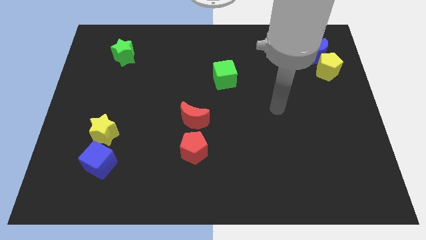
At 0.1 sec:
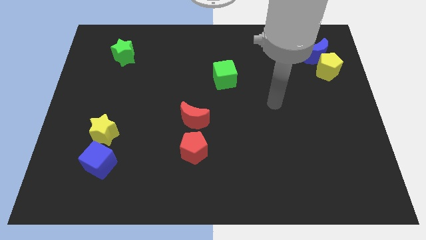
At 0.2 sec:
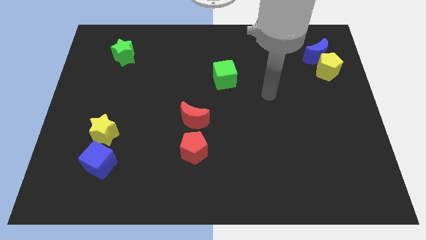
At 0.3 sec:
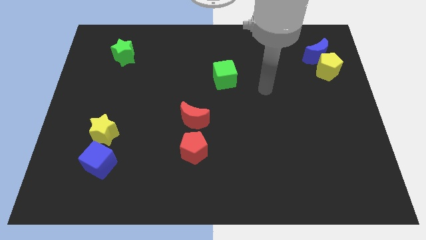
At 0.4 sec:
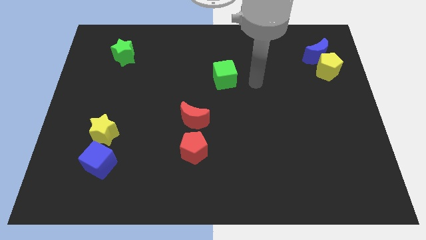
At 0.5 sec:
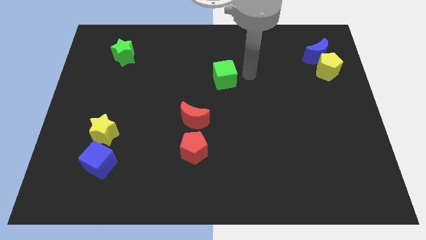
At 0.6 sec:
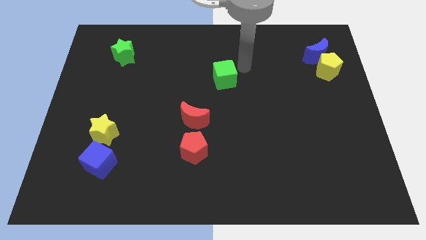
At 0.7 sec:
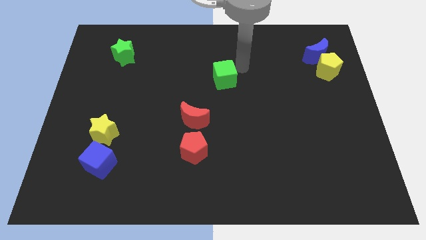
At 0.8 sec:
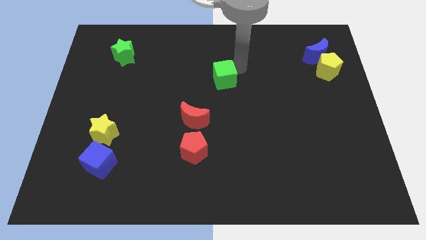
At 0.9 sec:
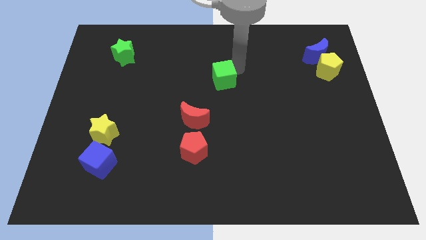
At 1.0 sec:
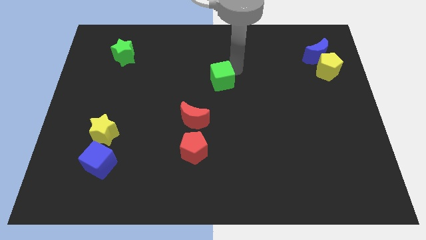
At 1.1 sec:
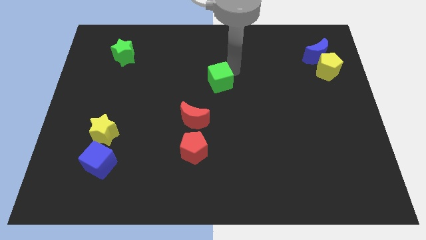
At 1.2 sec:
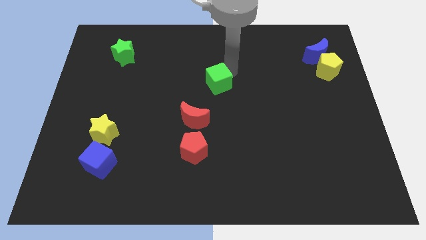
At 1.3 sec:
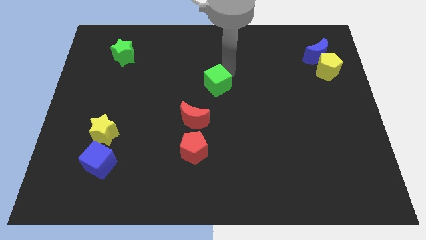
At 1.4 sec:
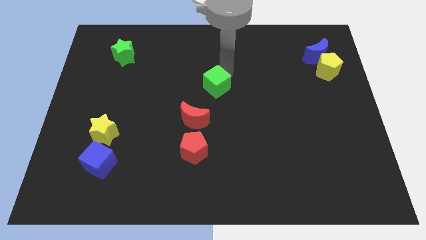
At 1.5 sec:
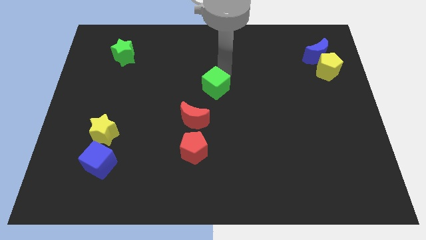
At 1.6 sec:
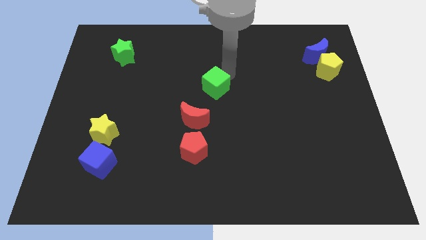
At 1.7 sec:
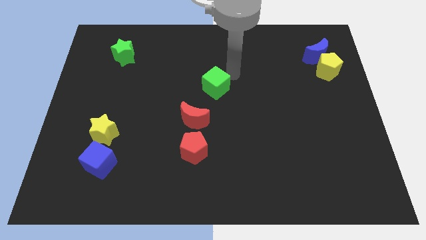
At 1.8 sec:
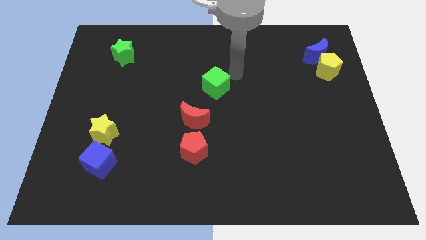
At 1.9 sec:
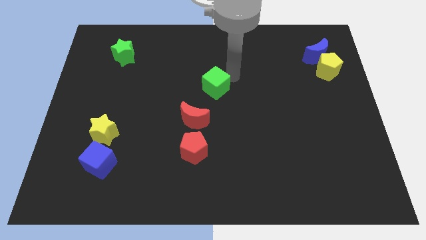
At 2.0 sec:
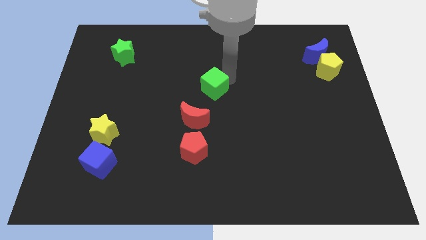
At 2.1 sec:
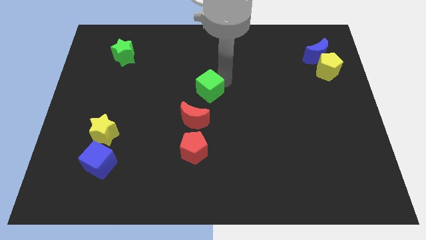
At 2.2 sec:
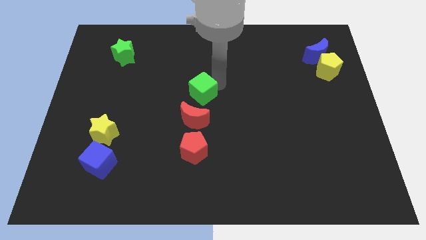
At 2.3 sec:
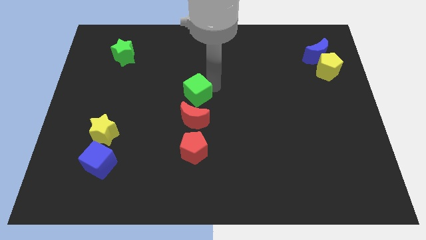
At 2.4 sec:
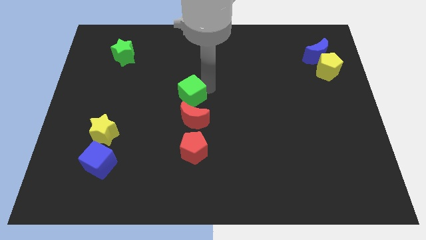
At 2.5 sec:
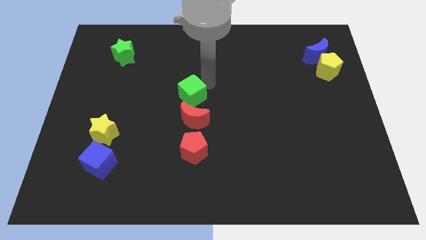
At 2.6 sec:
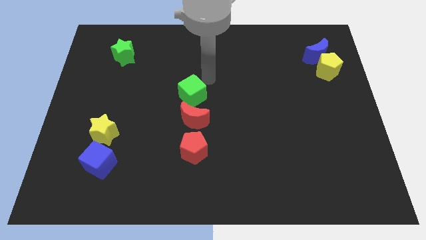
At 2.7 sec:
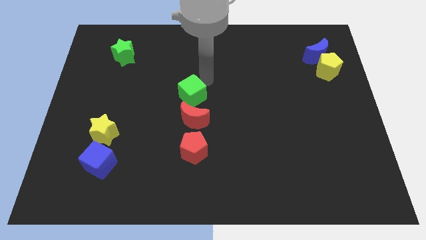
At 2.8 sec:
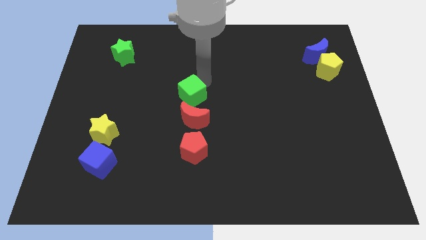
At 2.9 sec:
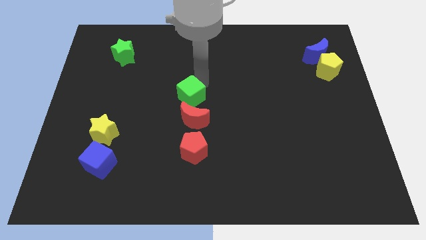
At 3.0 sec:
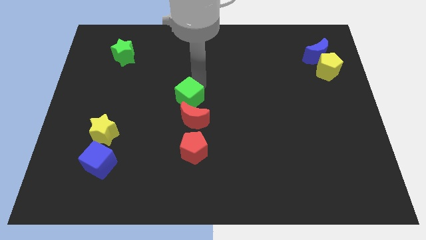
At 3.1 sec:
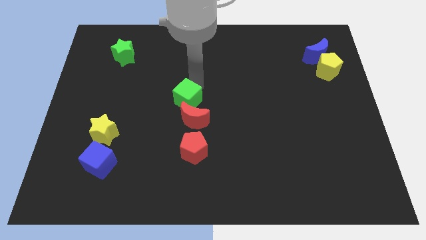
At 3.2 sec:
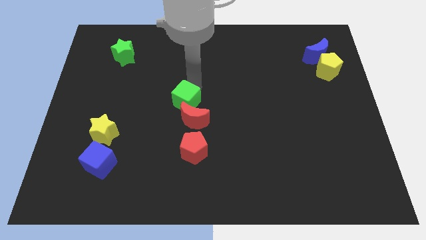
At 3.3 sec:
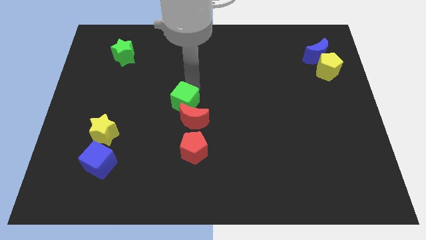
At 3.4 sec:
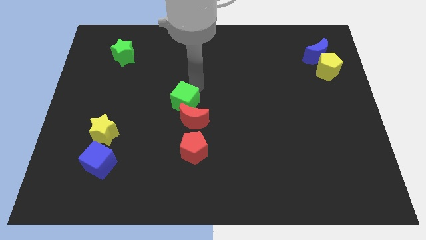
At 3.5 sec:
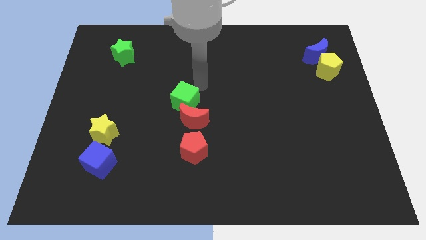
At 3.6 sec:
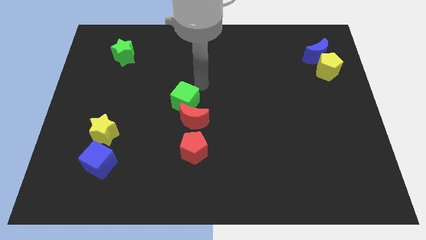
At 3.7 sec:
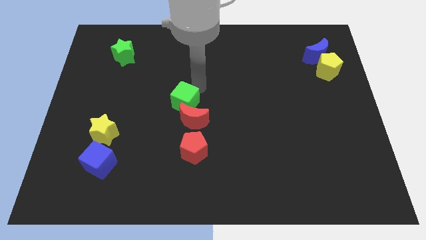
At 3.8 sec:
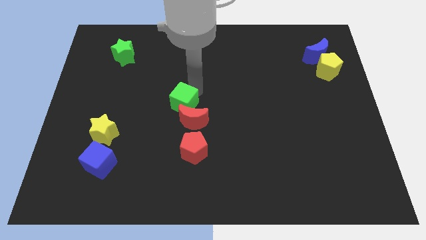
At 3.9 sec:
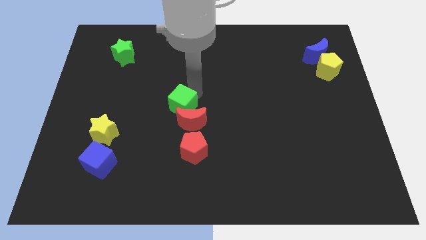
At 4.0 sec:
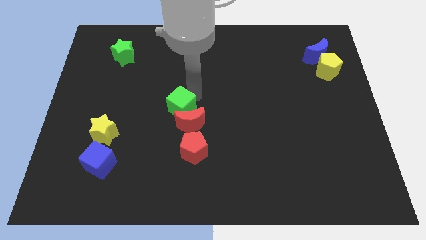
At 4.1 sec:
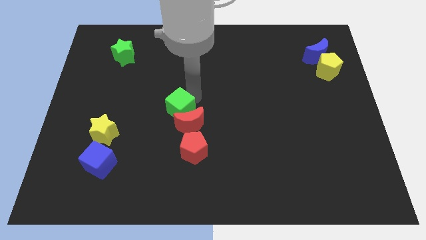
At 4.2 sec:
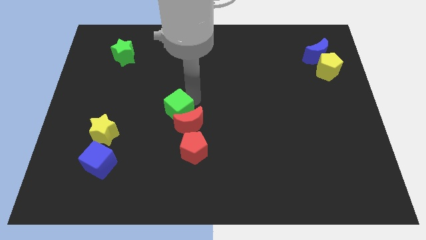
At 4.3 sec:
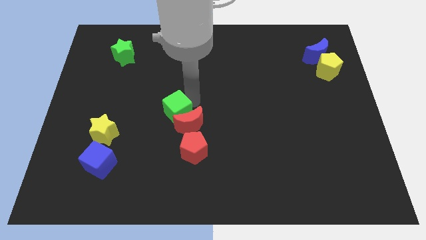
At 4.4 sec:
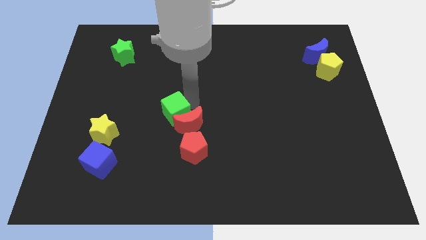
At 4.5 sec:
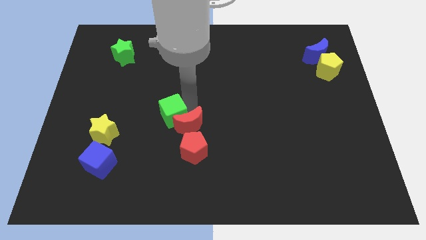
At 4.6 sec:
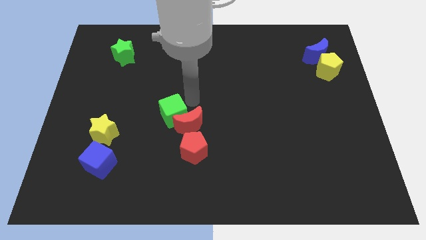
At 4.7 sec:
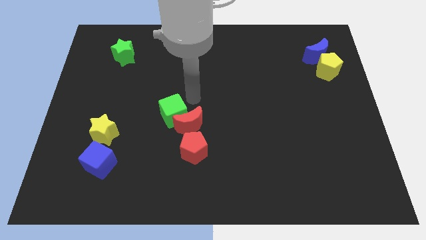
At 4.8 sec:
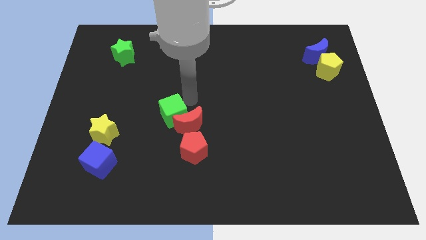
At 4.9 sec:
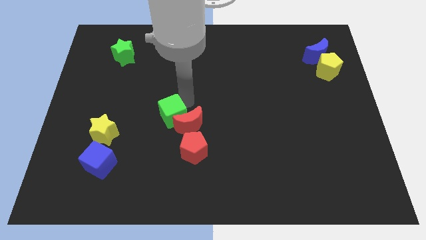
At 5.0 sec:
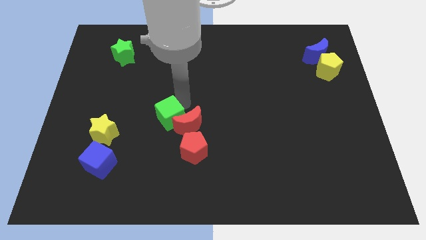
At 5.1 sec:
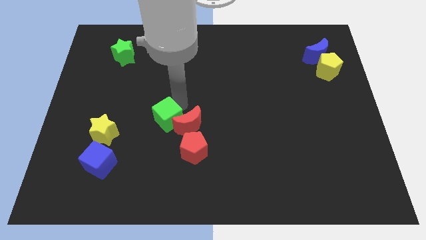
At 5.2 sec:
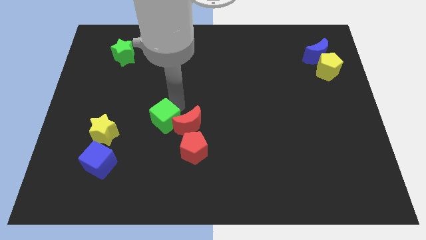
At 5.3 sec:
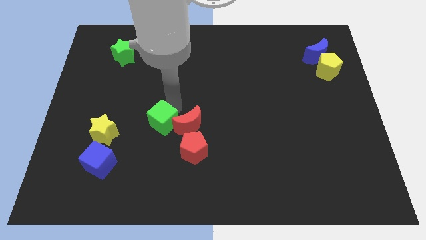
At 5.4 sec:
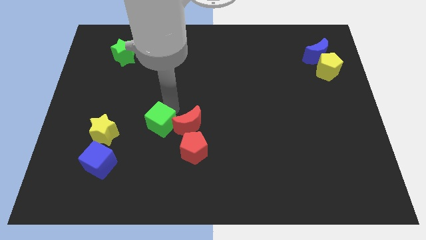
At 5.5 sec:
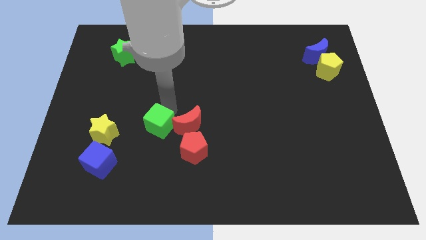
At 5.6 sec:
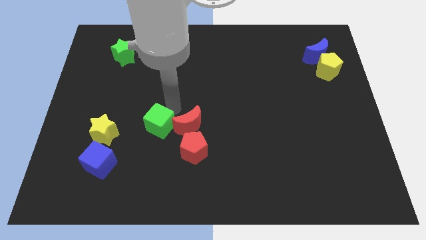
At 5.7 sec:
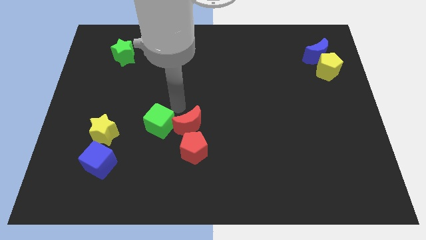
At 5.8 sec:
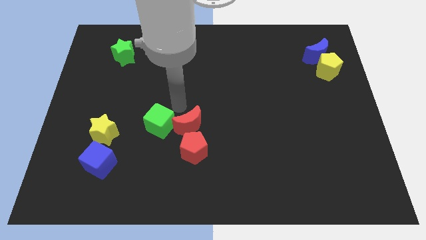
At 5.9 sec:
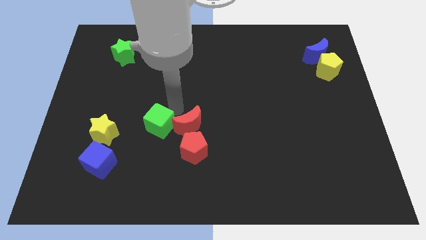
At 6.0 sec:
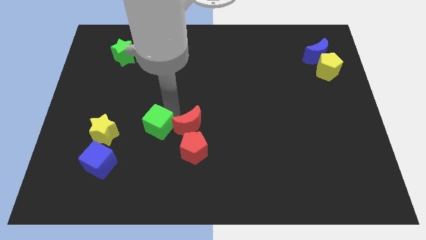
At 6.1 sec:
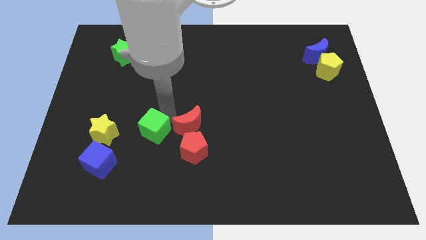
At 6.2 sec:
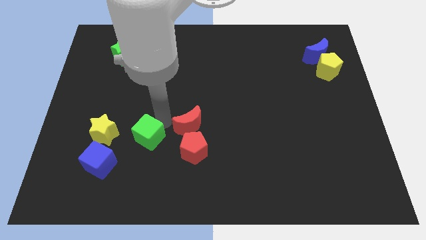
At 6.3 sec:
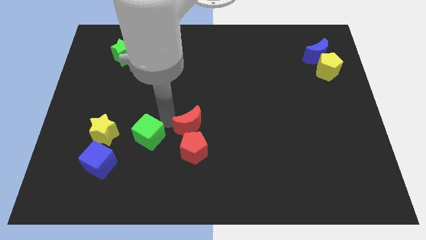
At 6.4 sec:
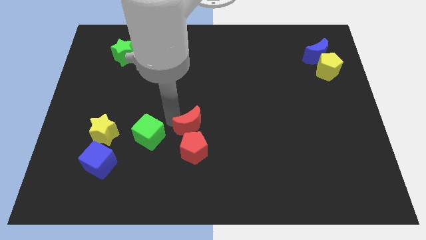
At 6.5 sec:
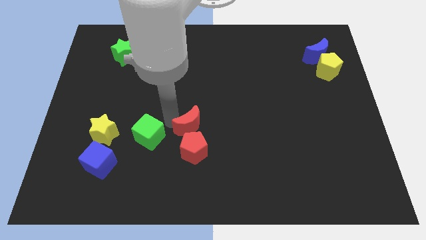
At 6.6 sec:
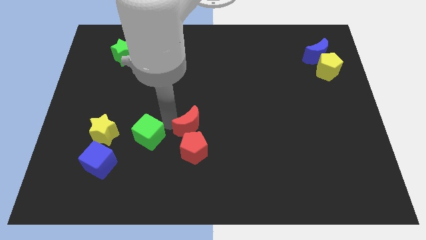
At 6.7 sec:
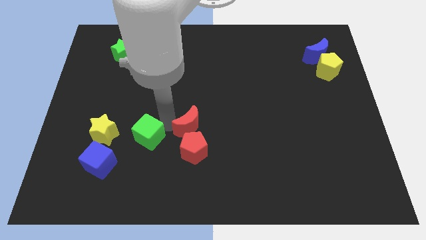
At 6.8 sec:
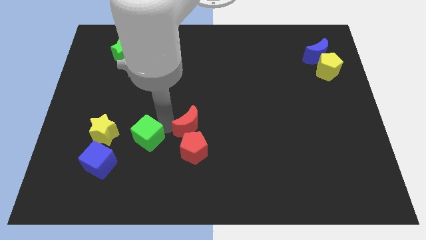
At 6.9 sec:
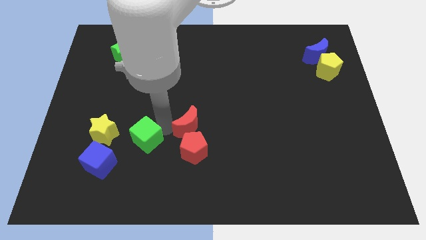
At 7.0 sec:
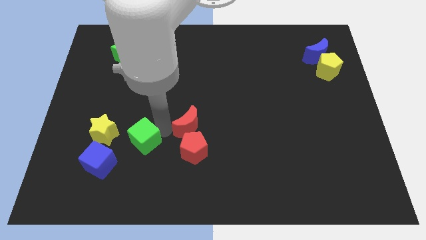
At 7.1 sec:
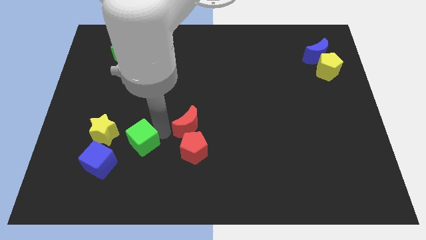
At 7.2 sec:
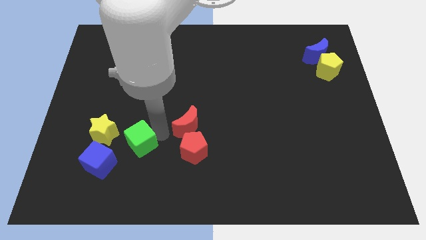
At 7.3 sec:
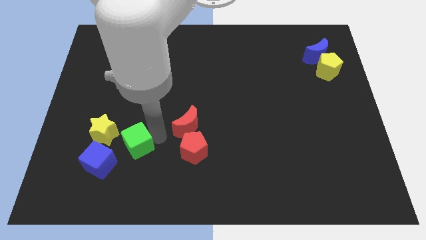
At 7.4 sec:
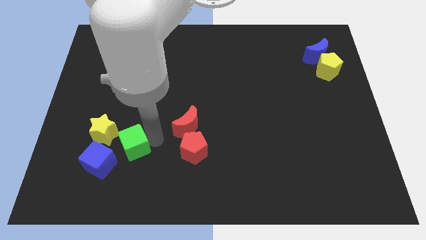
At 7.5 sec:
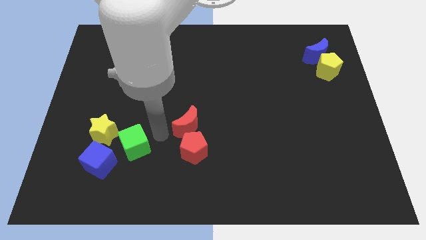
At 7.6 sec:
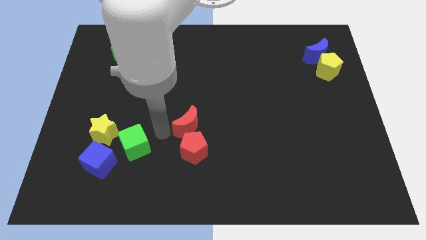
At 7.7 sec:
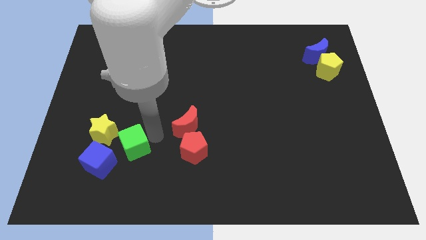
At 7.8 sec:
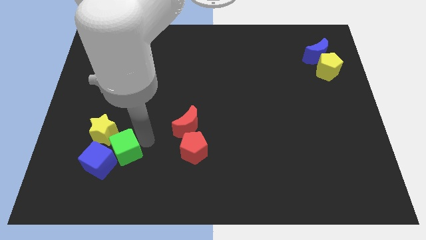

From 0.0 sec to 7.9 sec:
slide the green cube next to the blue cube
